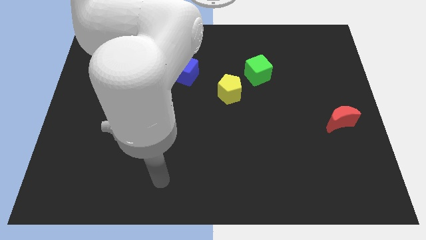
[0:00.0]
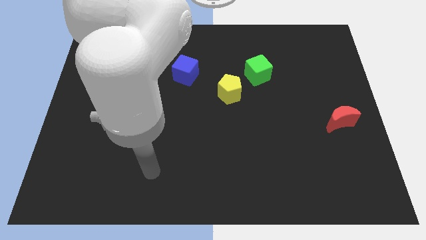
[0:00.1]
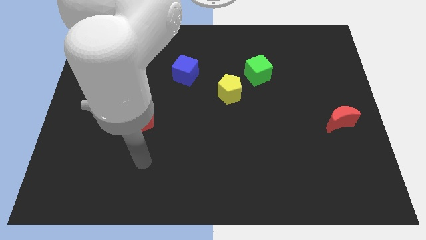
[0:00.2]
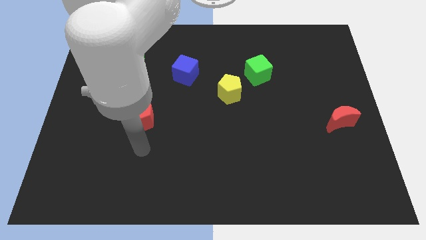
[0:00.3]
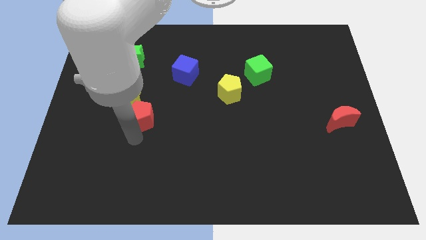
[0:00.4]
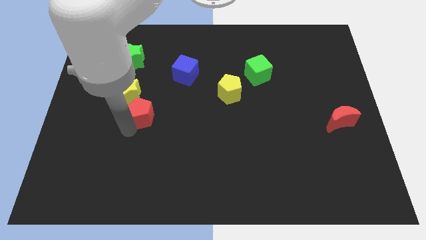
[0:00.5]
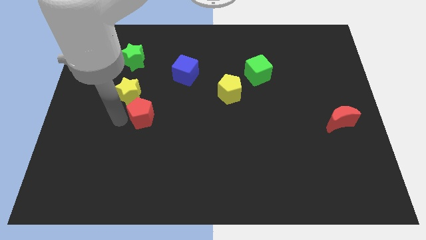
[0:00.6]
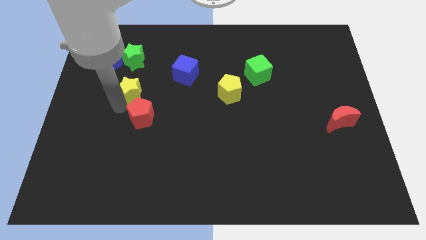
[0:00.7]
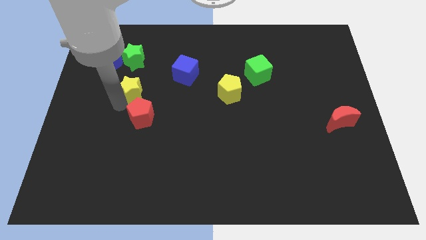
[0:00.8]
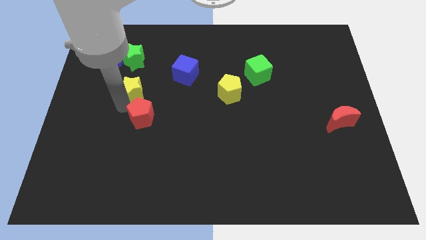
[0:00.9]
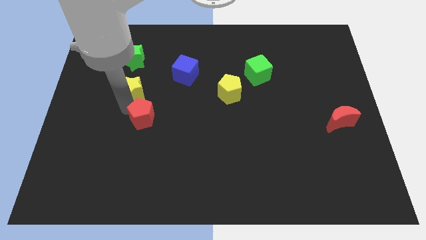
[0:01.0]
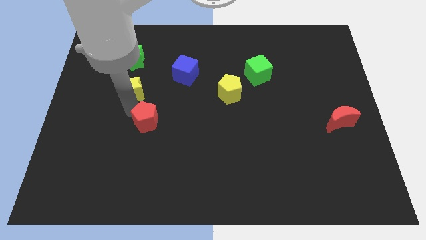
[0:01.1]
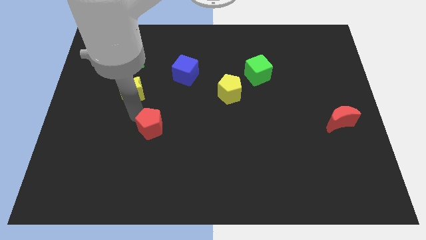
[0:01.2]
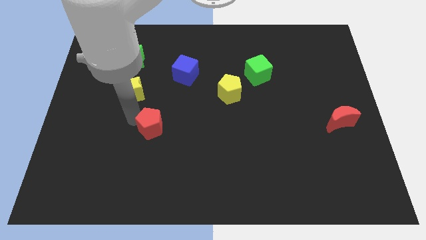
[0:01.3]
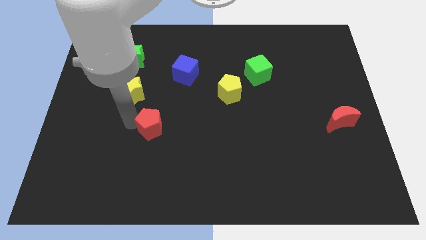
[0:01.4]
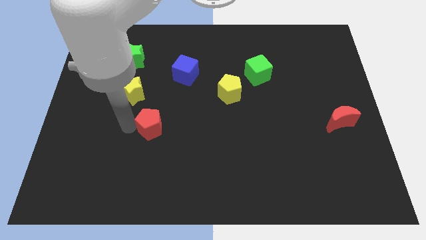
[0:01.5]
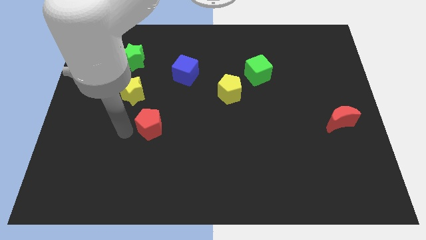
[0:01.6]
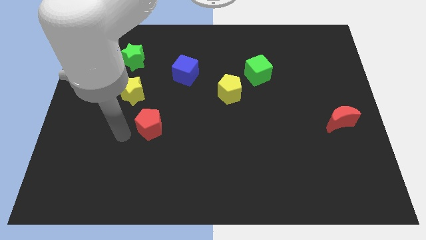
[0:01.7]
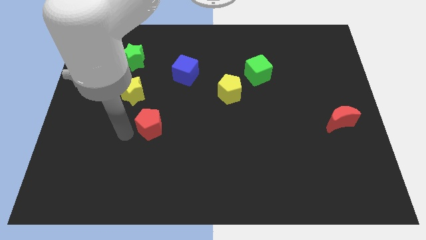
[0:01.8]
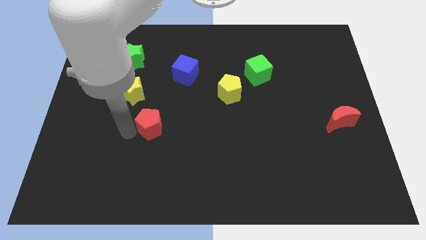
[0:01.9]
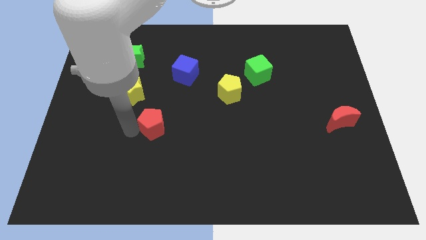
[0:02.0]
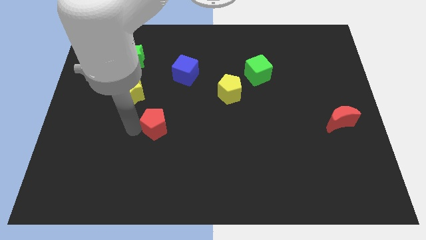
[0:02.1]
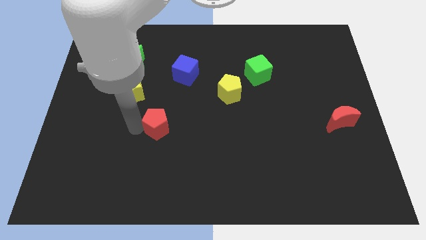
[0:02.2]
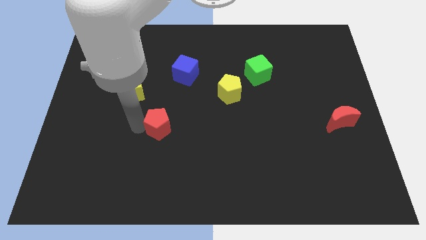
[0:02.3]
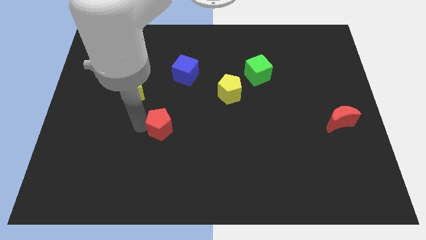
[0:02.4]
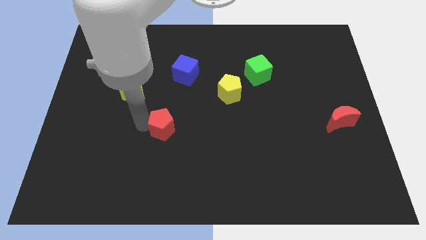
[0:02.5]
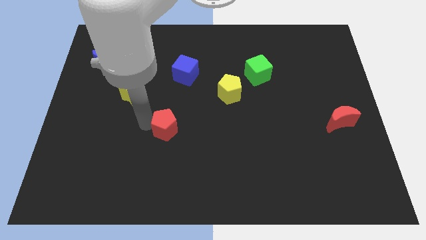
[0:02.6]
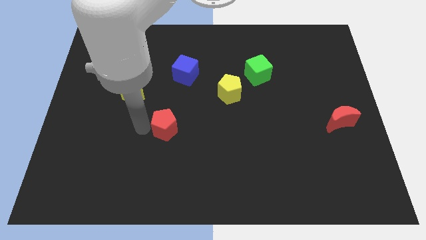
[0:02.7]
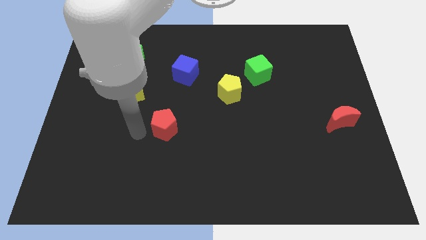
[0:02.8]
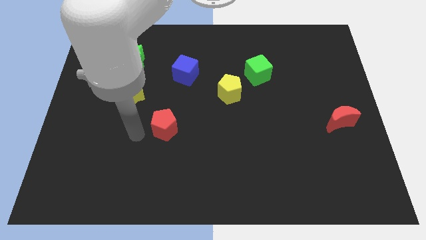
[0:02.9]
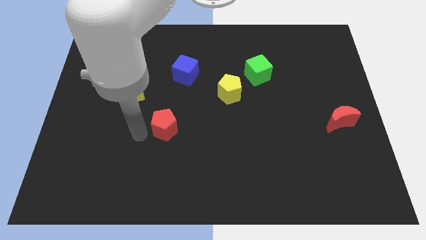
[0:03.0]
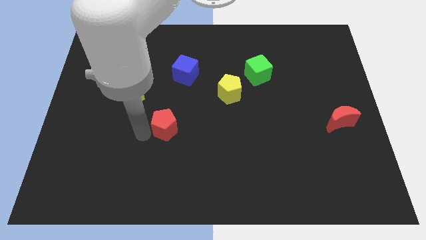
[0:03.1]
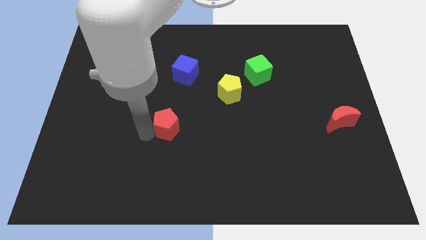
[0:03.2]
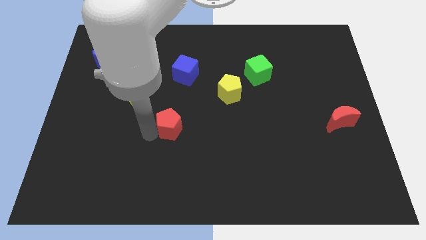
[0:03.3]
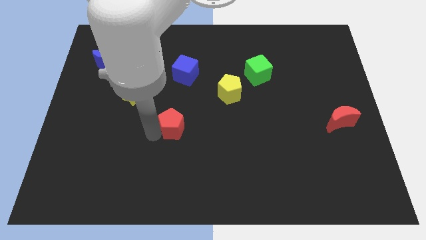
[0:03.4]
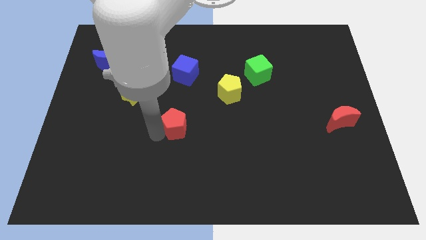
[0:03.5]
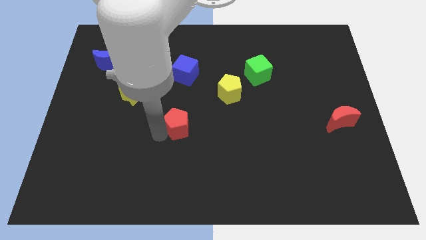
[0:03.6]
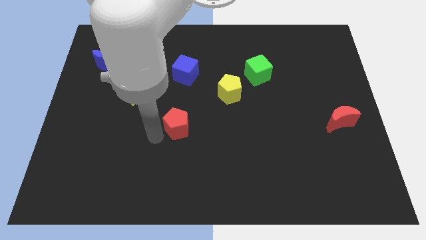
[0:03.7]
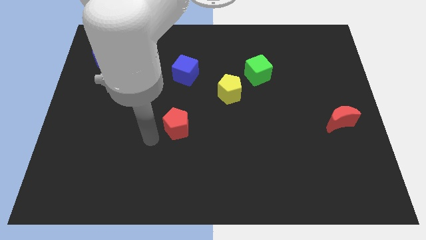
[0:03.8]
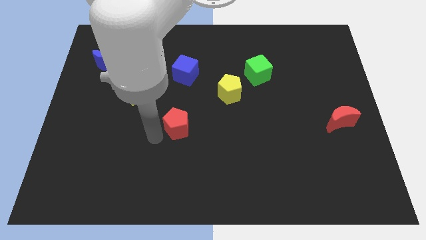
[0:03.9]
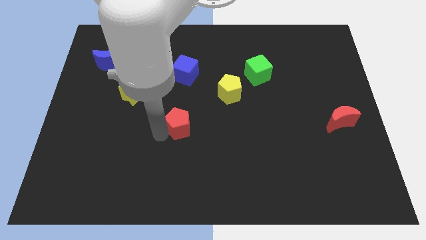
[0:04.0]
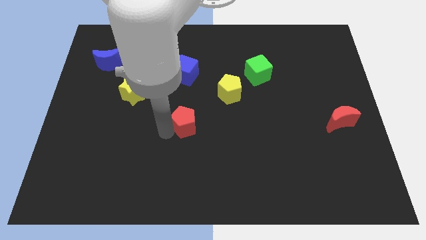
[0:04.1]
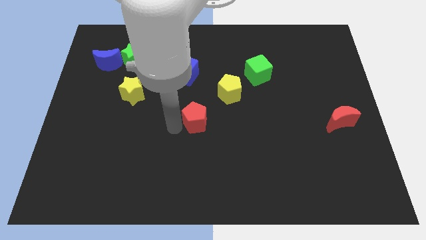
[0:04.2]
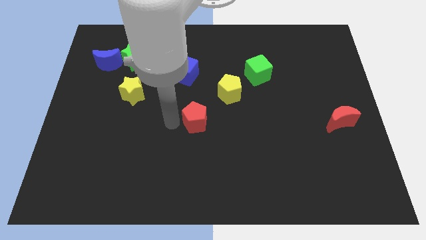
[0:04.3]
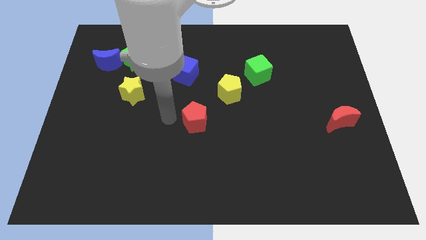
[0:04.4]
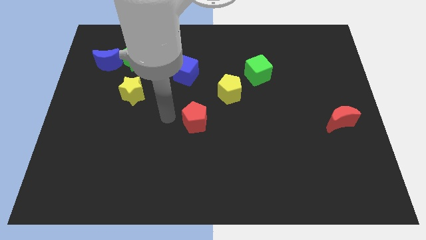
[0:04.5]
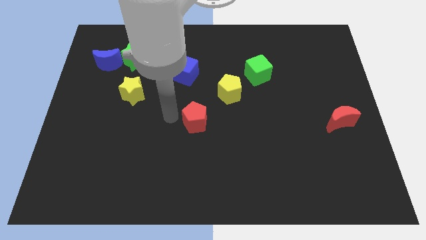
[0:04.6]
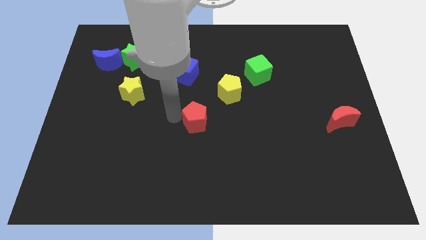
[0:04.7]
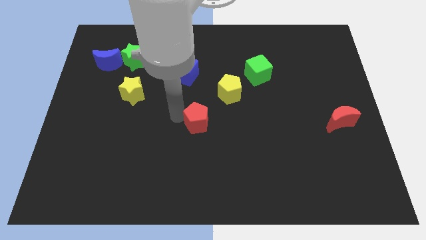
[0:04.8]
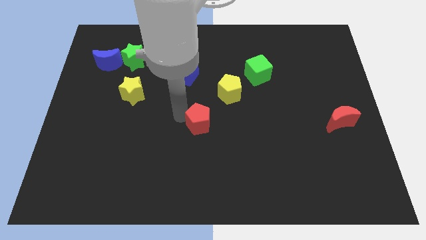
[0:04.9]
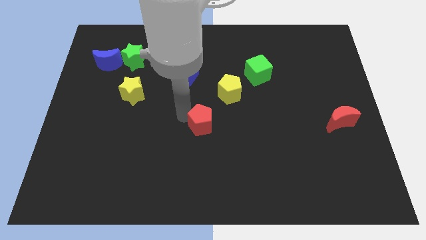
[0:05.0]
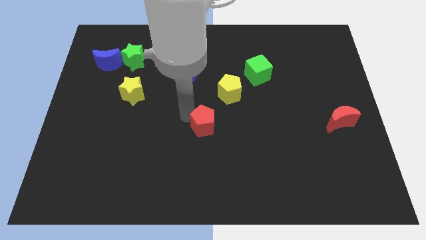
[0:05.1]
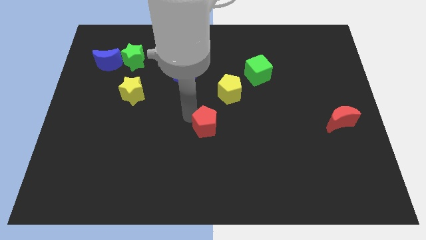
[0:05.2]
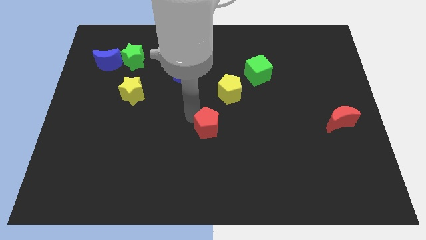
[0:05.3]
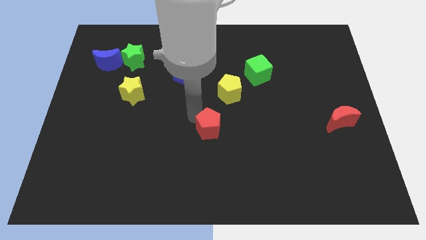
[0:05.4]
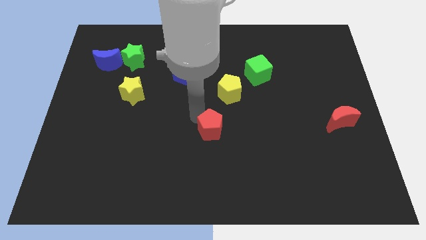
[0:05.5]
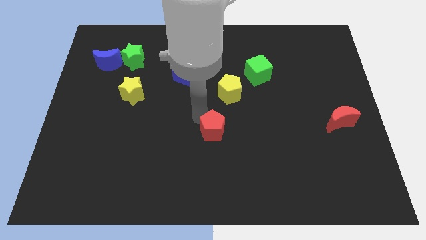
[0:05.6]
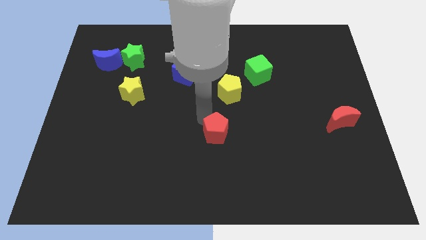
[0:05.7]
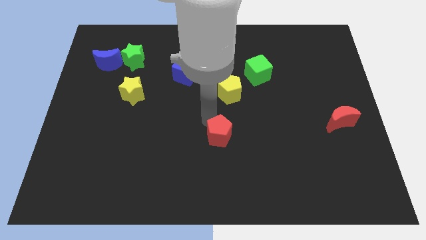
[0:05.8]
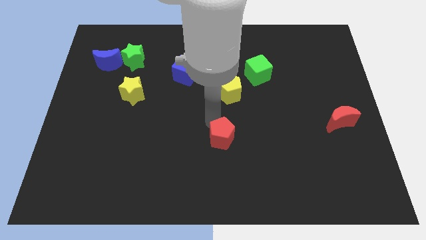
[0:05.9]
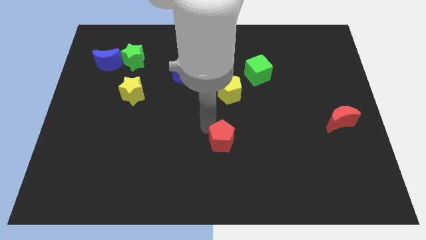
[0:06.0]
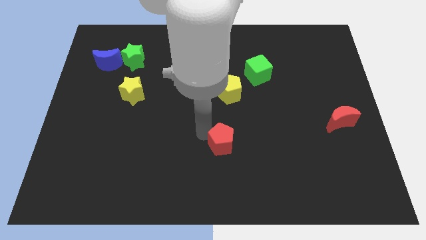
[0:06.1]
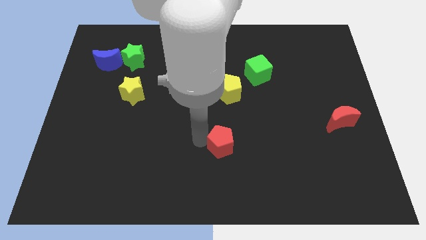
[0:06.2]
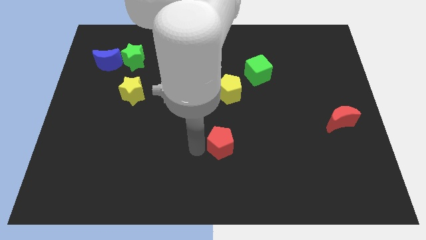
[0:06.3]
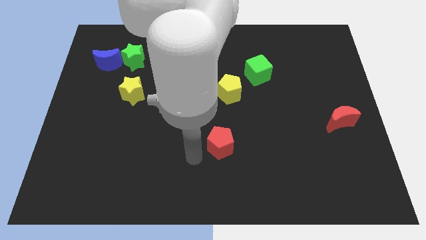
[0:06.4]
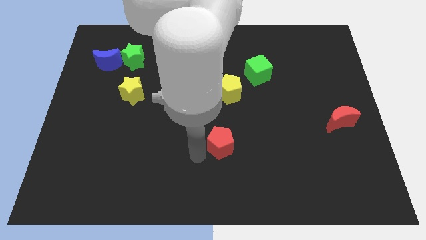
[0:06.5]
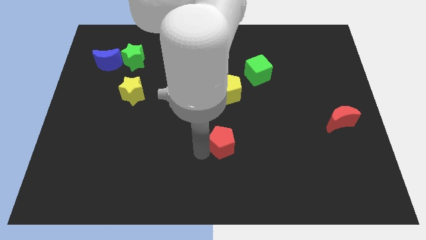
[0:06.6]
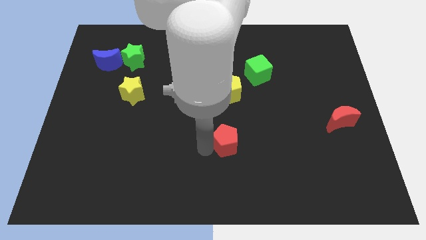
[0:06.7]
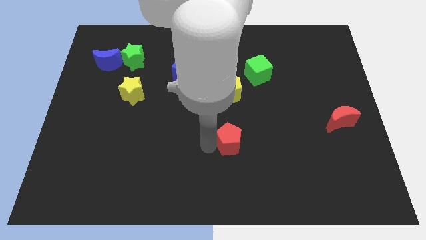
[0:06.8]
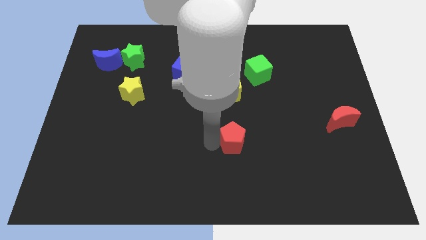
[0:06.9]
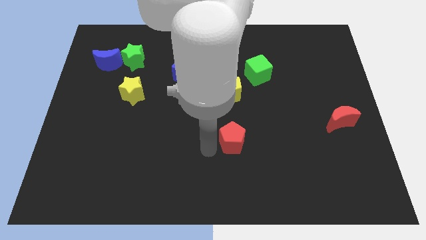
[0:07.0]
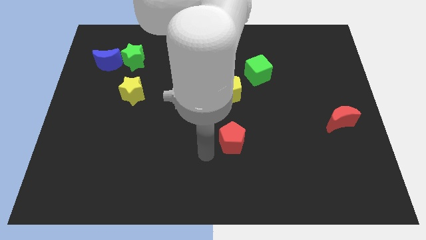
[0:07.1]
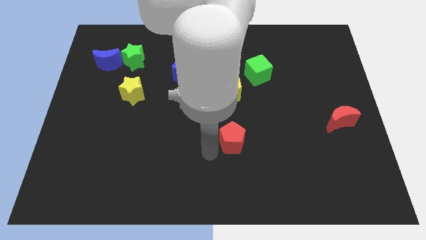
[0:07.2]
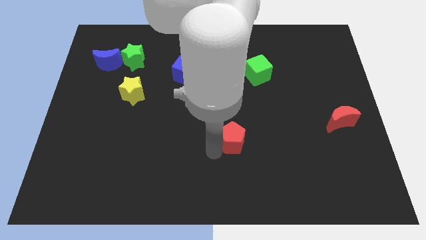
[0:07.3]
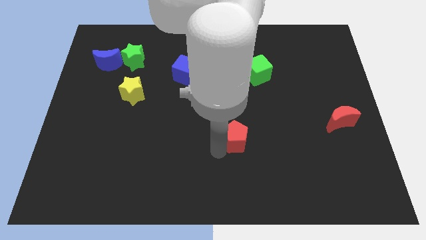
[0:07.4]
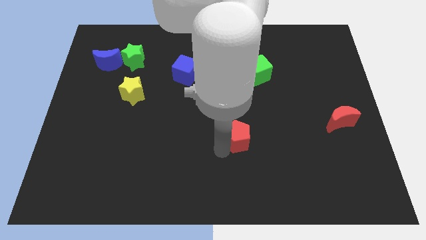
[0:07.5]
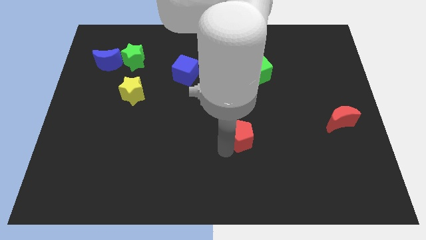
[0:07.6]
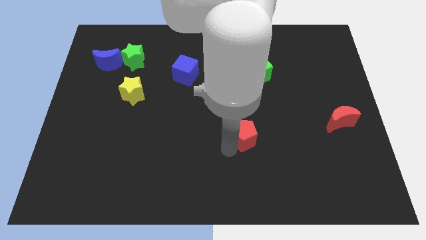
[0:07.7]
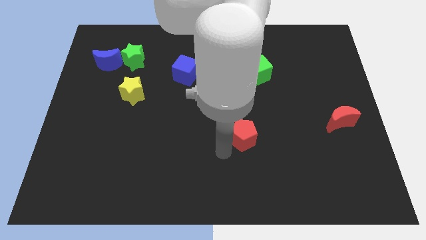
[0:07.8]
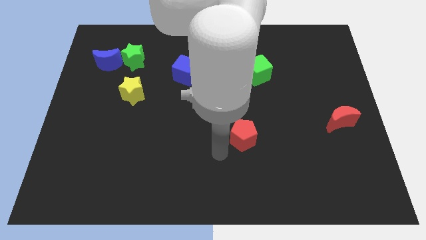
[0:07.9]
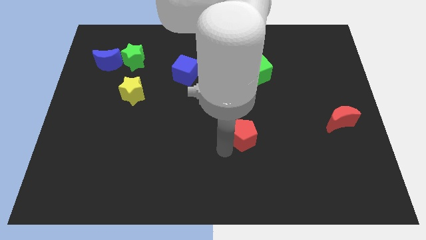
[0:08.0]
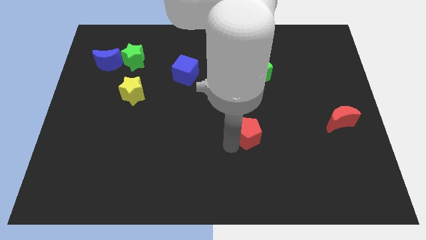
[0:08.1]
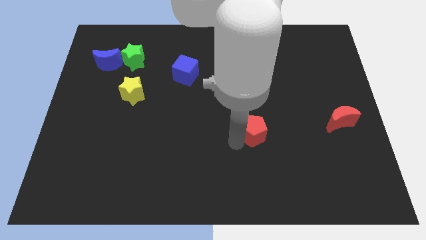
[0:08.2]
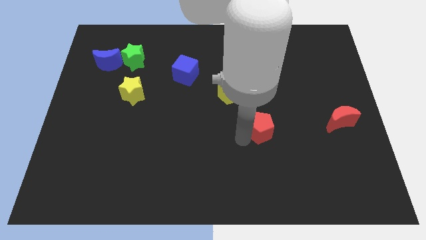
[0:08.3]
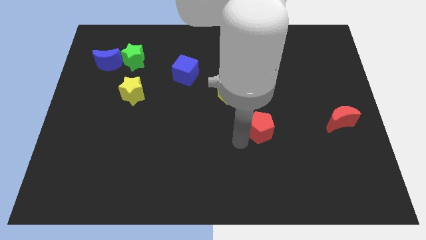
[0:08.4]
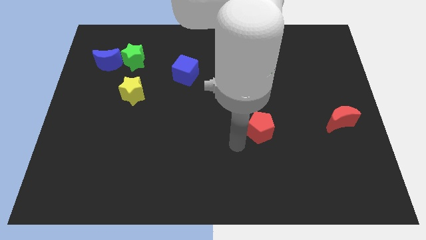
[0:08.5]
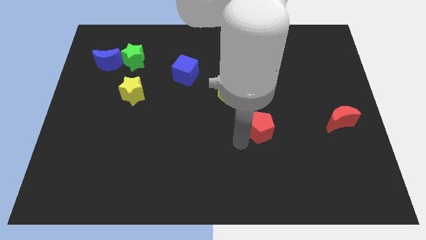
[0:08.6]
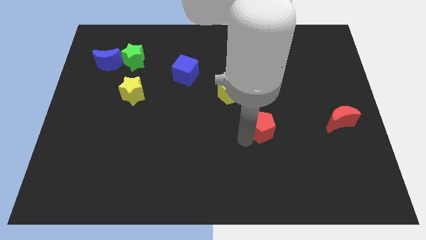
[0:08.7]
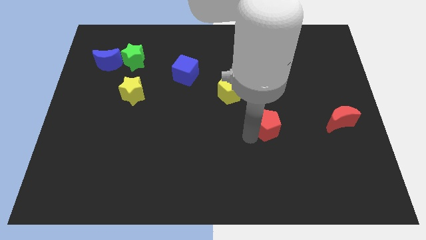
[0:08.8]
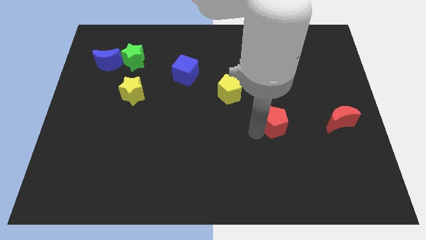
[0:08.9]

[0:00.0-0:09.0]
slide the red pentagon to the left side of the red moon
